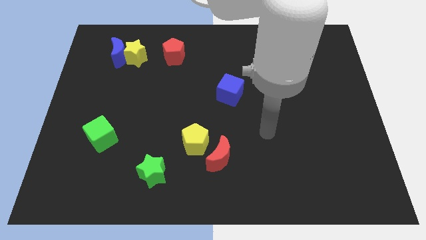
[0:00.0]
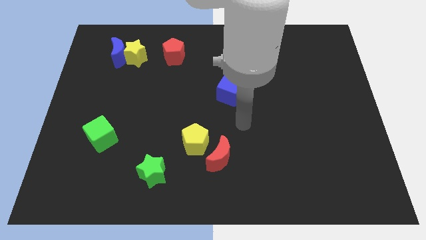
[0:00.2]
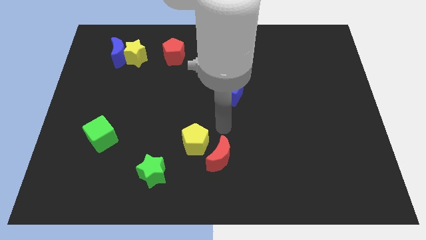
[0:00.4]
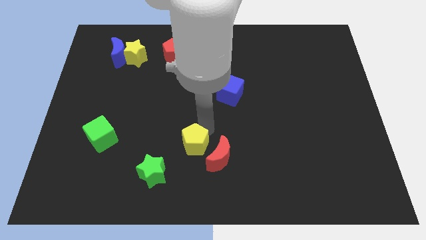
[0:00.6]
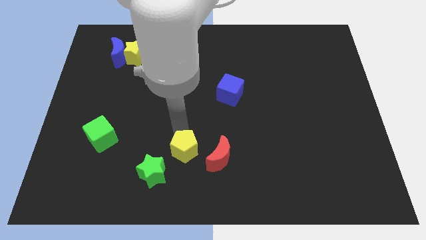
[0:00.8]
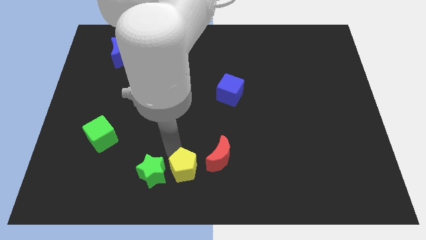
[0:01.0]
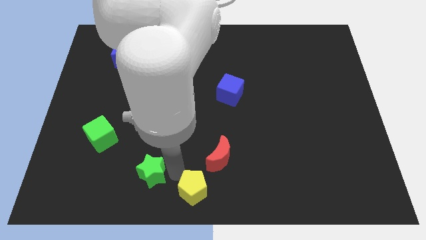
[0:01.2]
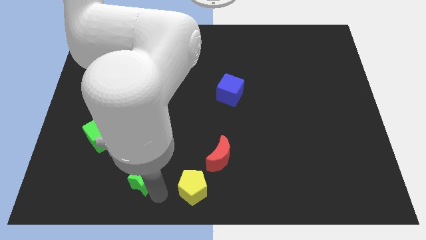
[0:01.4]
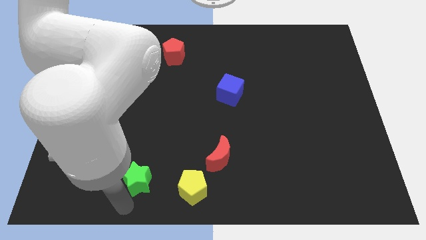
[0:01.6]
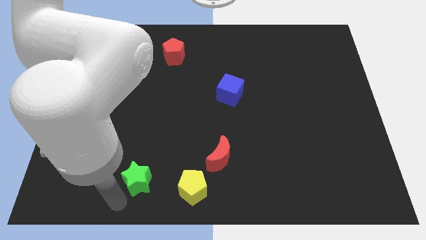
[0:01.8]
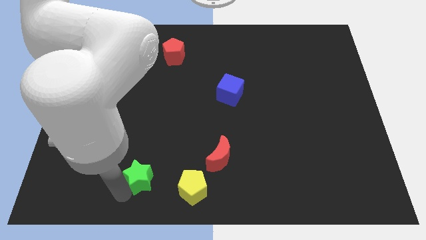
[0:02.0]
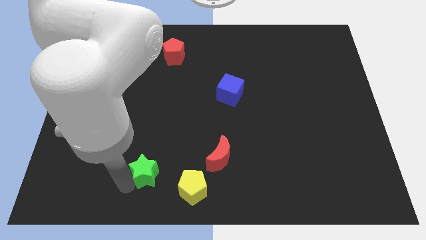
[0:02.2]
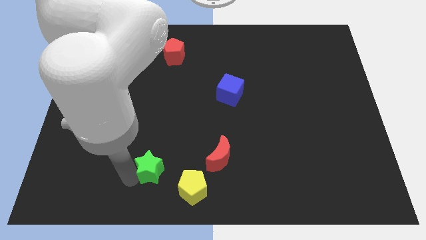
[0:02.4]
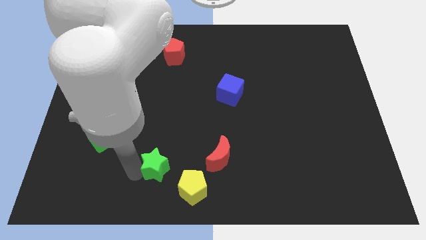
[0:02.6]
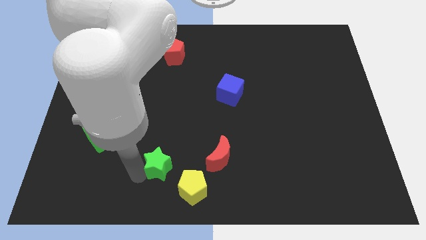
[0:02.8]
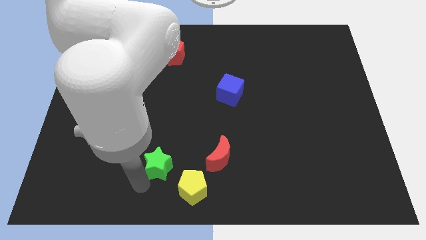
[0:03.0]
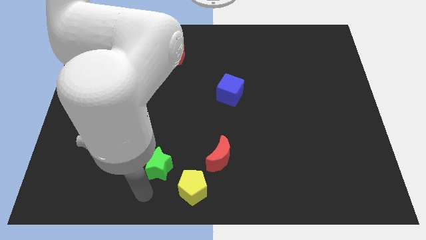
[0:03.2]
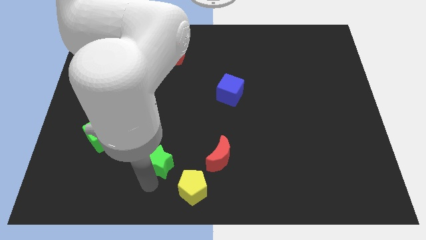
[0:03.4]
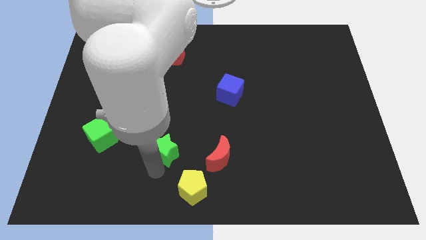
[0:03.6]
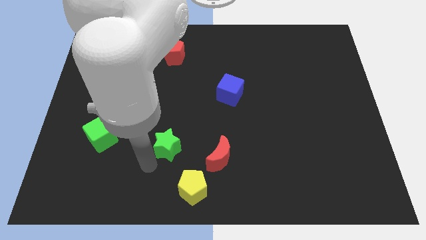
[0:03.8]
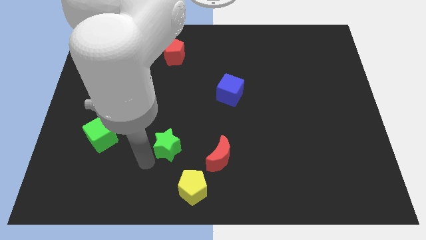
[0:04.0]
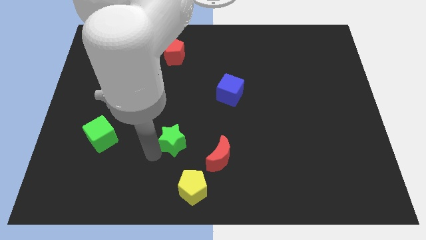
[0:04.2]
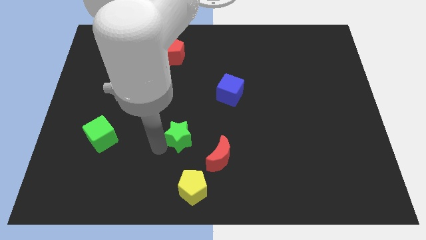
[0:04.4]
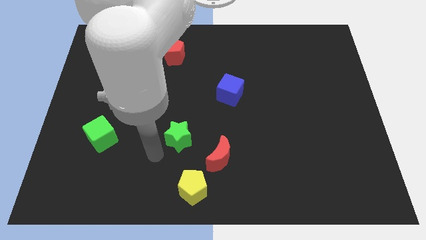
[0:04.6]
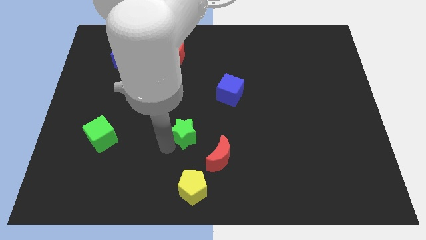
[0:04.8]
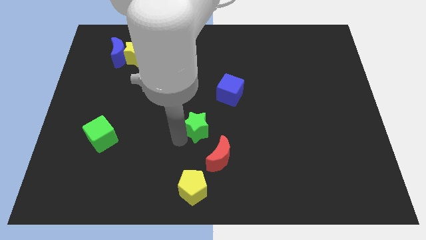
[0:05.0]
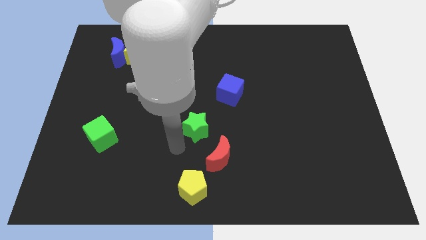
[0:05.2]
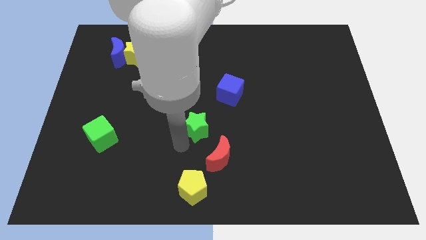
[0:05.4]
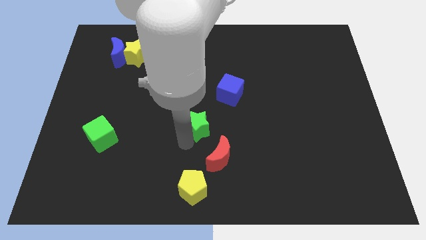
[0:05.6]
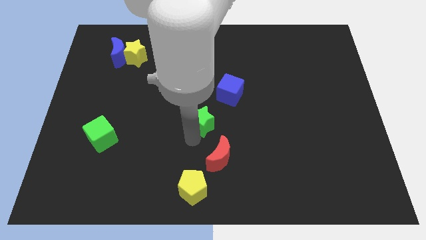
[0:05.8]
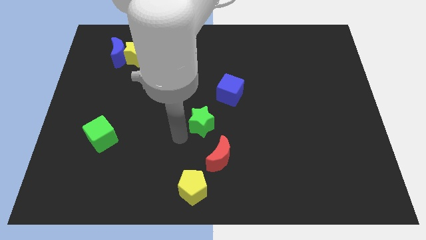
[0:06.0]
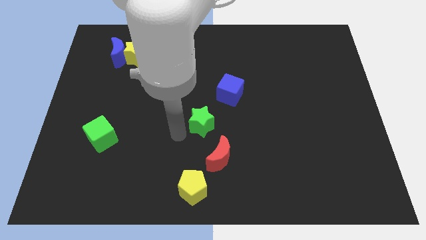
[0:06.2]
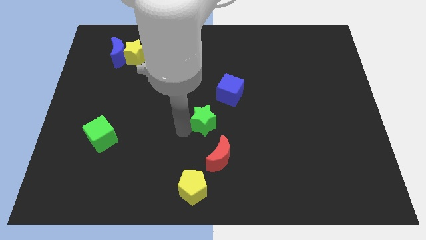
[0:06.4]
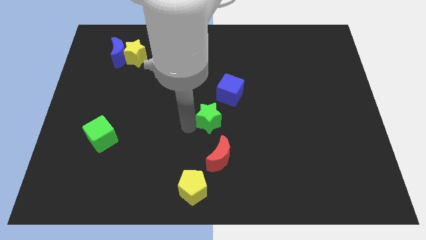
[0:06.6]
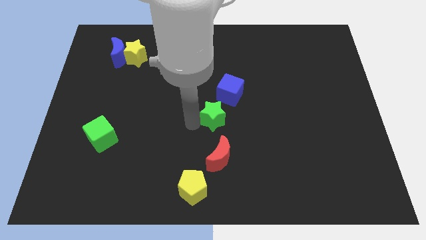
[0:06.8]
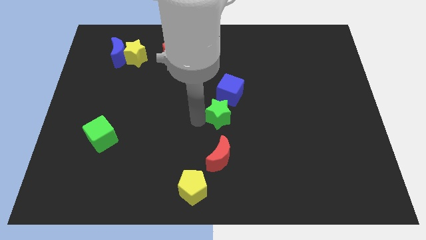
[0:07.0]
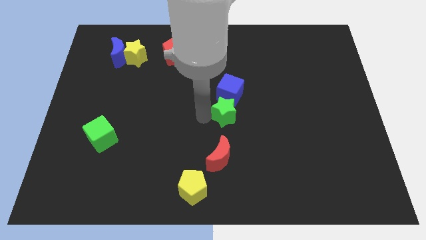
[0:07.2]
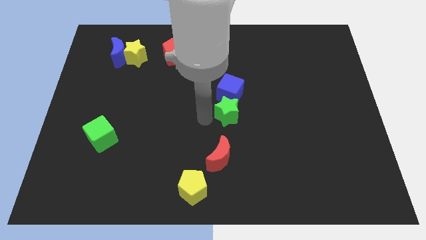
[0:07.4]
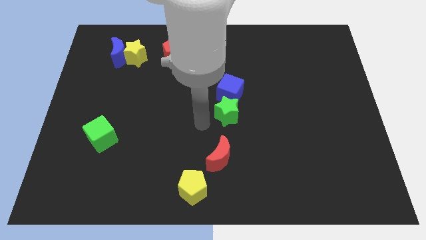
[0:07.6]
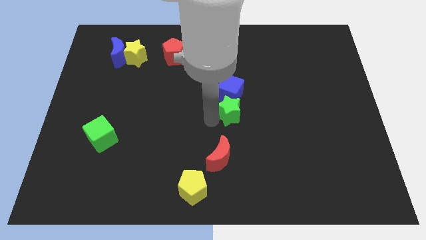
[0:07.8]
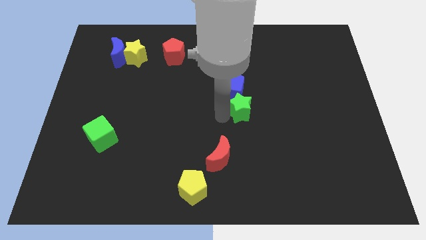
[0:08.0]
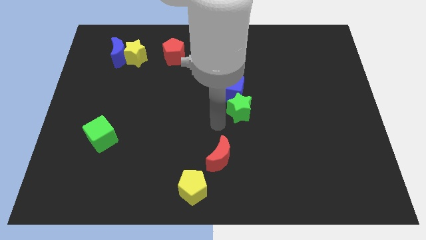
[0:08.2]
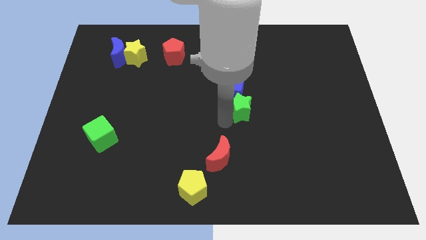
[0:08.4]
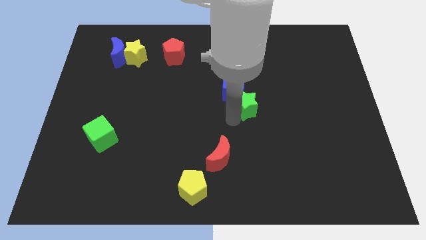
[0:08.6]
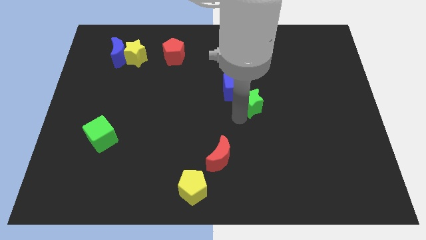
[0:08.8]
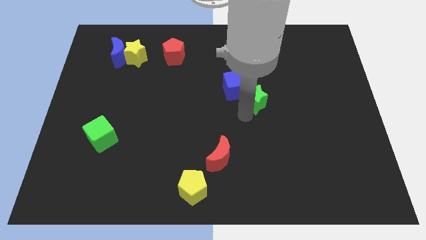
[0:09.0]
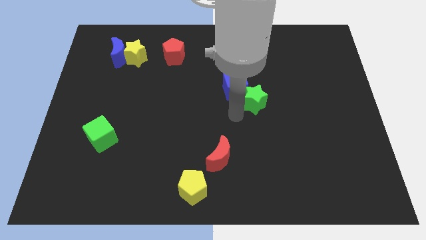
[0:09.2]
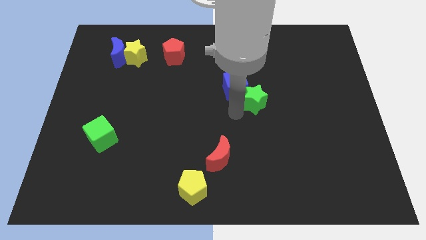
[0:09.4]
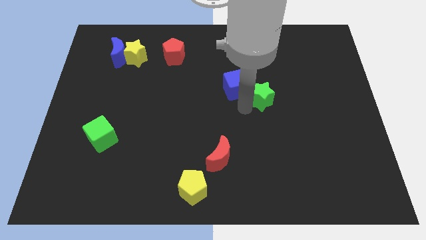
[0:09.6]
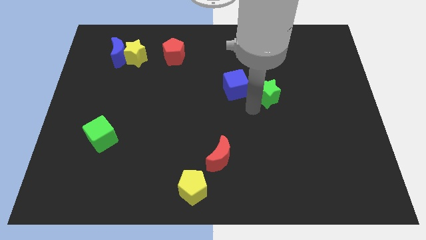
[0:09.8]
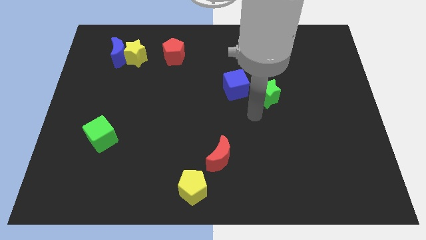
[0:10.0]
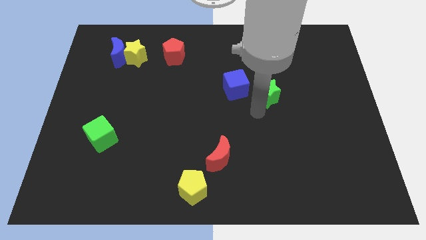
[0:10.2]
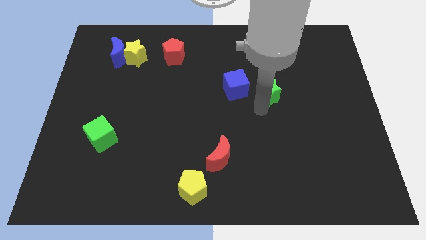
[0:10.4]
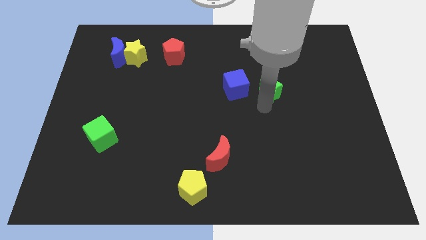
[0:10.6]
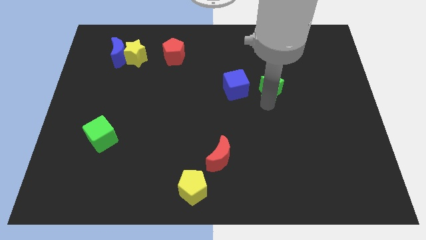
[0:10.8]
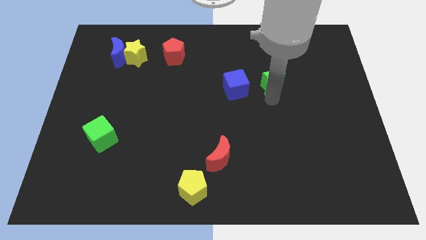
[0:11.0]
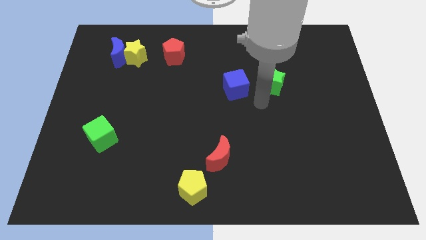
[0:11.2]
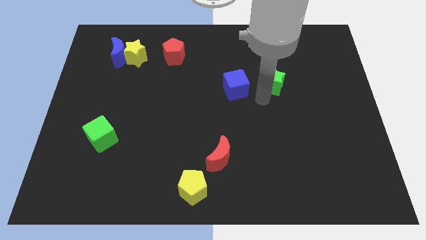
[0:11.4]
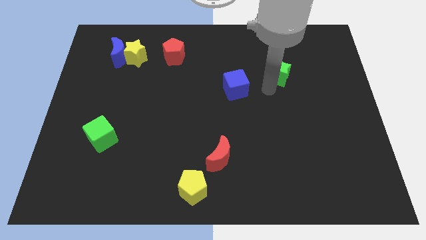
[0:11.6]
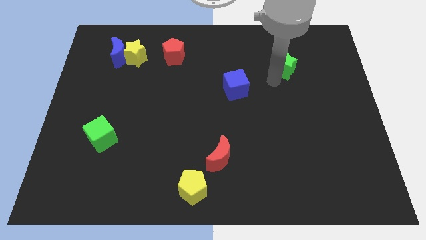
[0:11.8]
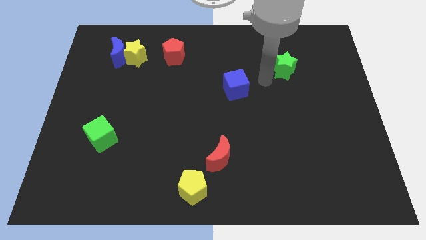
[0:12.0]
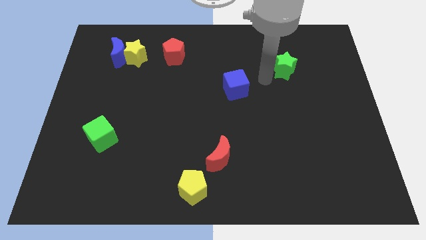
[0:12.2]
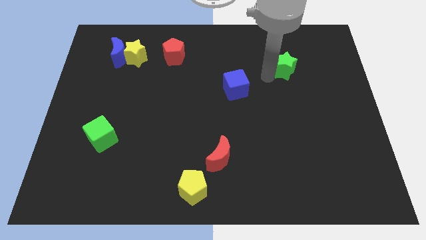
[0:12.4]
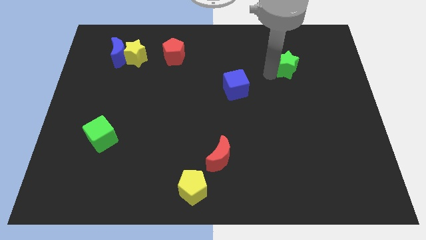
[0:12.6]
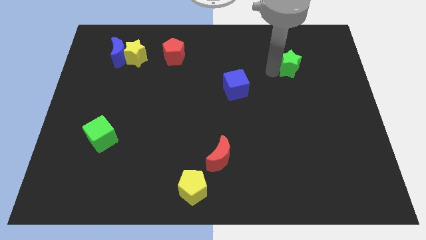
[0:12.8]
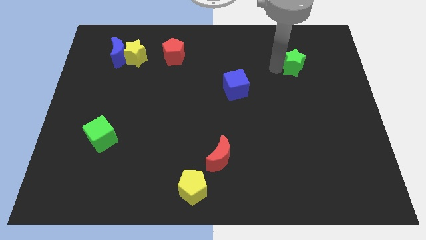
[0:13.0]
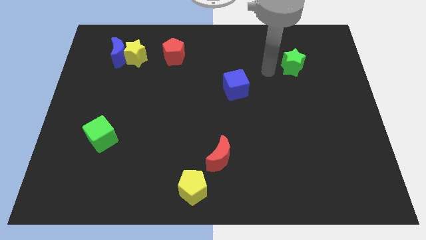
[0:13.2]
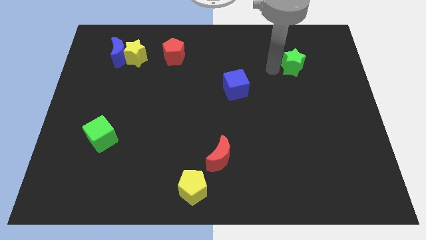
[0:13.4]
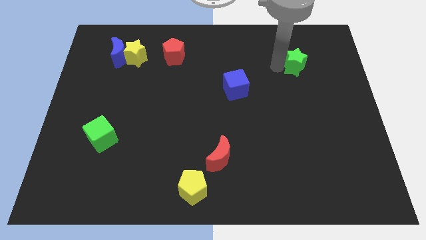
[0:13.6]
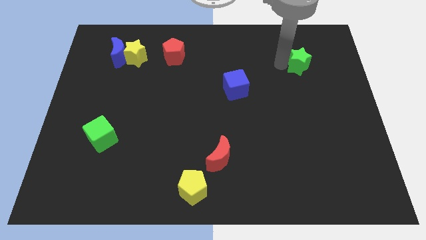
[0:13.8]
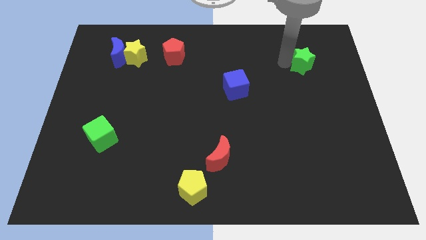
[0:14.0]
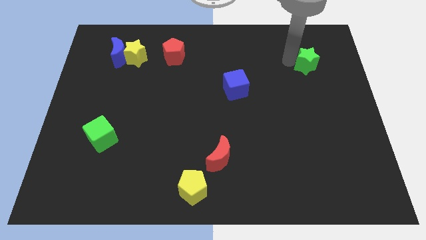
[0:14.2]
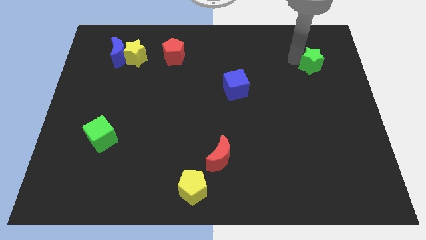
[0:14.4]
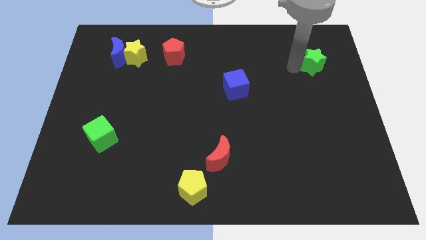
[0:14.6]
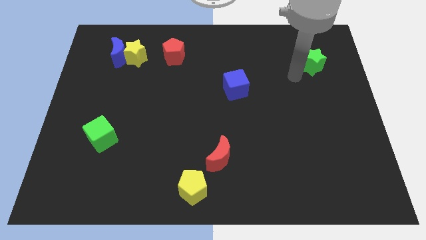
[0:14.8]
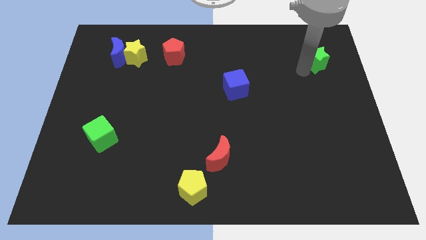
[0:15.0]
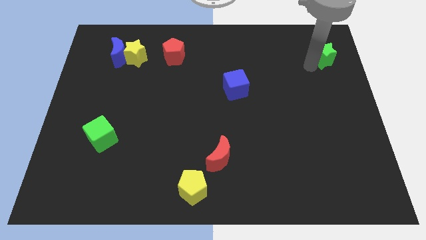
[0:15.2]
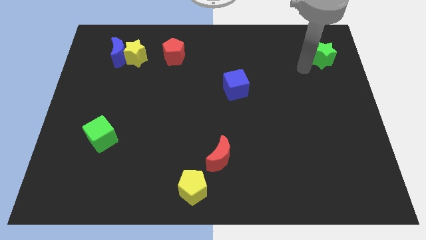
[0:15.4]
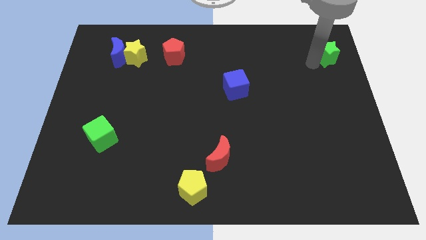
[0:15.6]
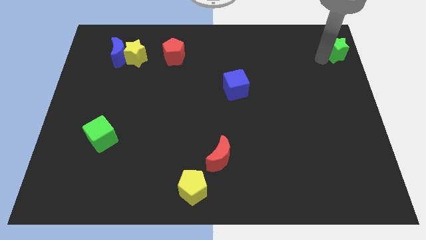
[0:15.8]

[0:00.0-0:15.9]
slide the green star to the upper right corner
